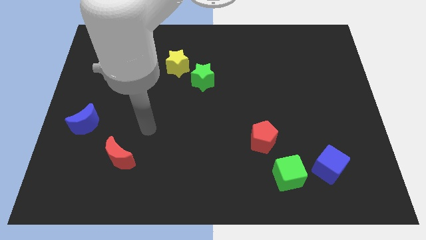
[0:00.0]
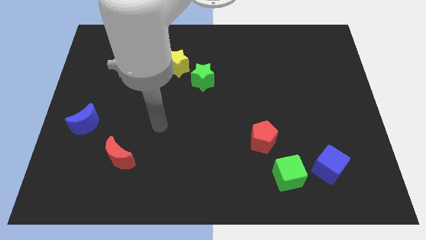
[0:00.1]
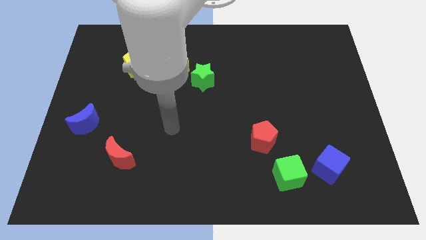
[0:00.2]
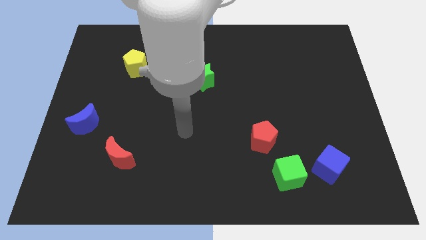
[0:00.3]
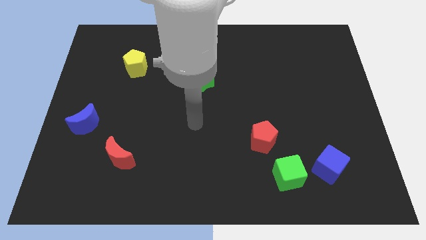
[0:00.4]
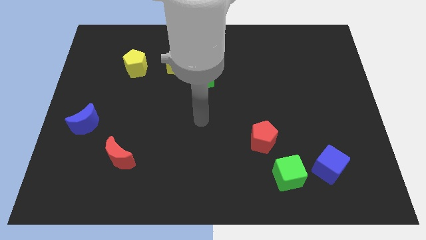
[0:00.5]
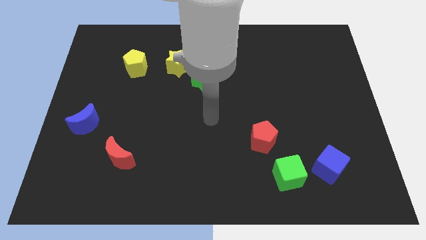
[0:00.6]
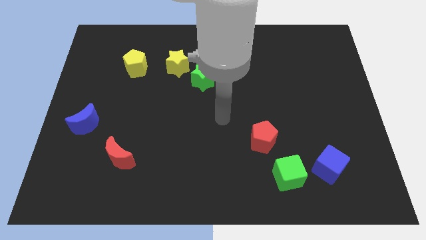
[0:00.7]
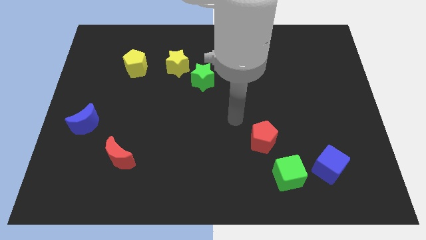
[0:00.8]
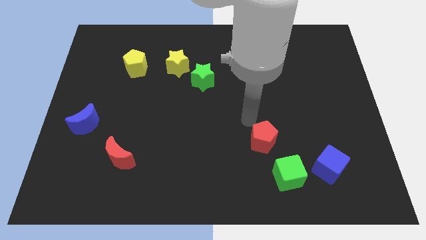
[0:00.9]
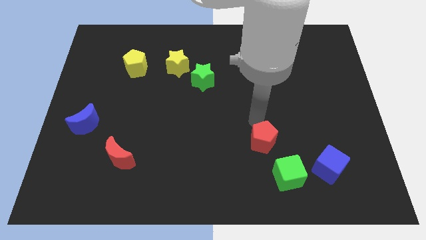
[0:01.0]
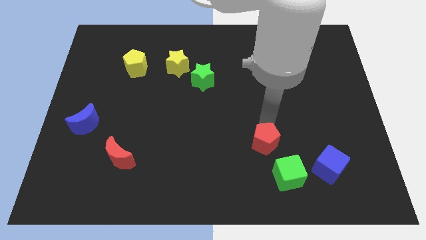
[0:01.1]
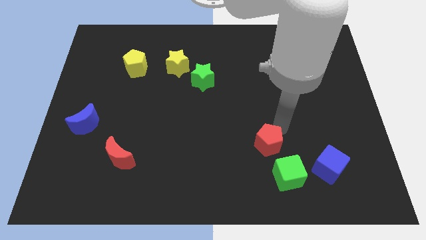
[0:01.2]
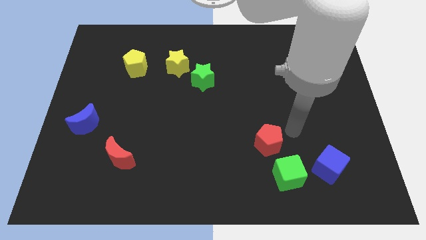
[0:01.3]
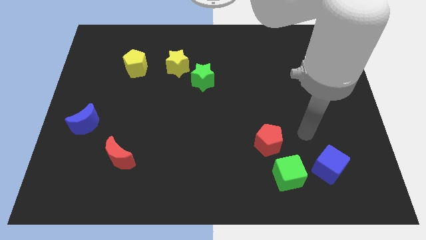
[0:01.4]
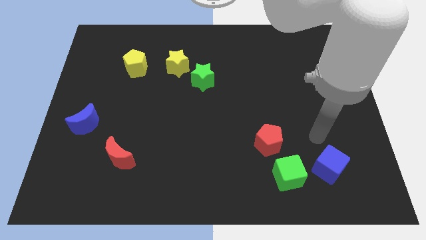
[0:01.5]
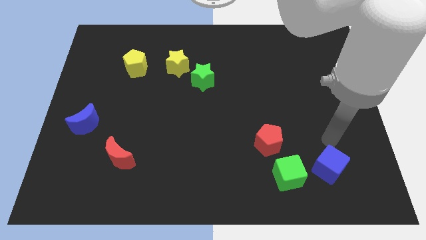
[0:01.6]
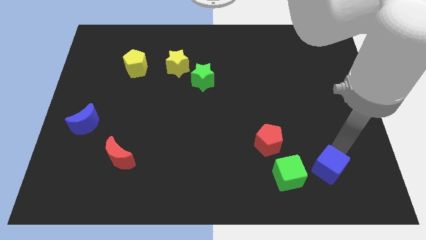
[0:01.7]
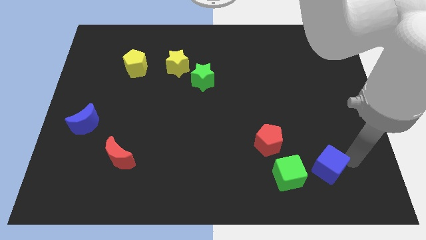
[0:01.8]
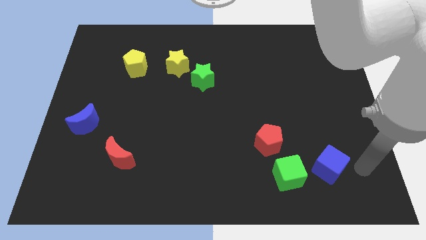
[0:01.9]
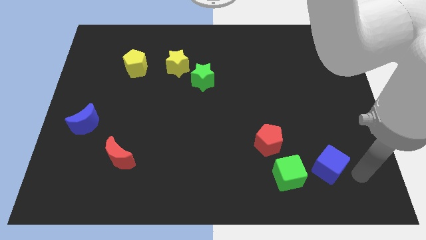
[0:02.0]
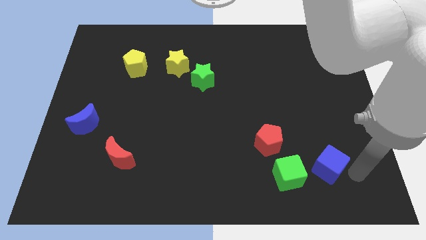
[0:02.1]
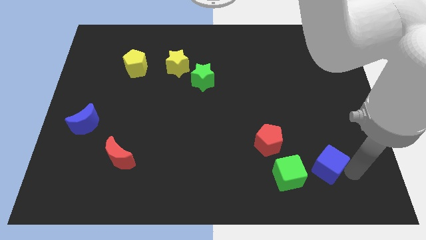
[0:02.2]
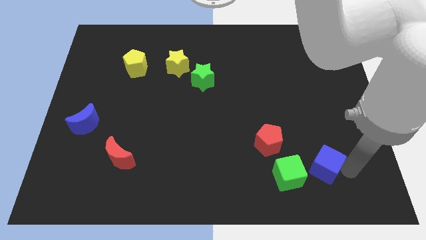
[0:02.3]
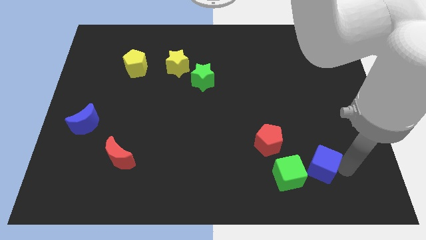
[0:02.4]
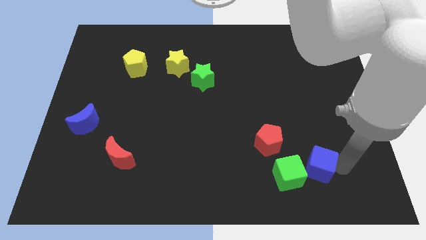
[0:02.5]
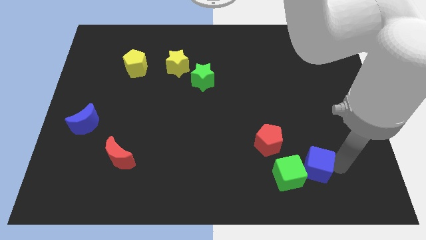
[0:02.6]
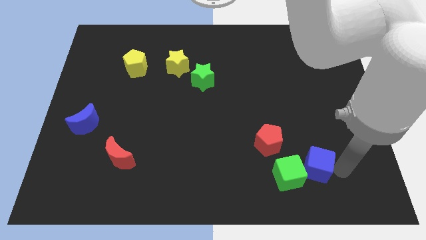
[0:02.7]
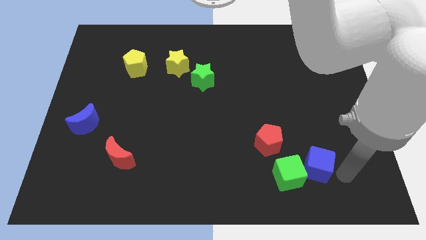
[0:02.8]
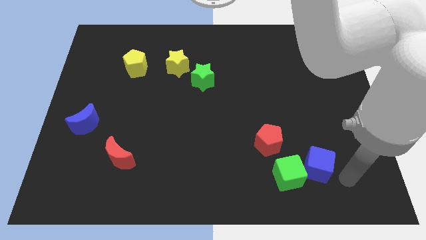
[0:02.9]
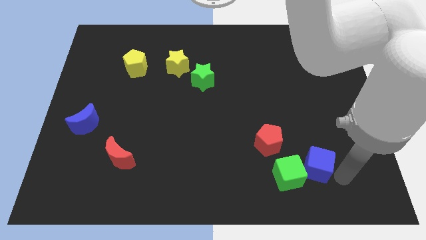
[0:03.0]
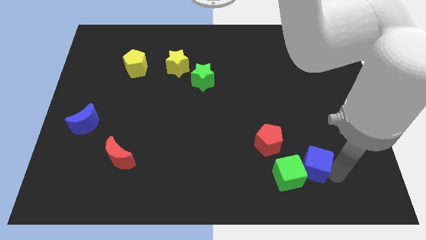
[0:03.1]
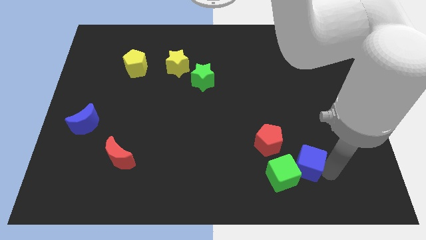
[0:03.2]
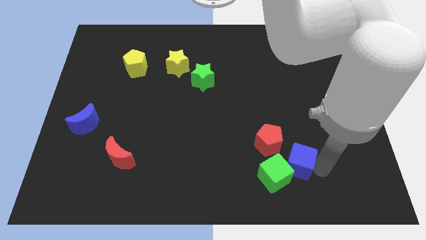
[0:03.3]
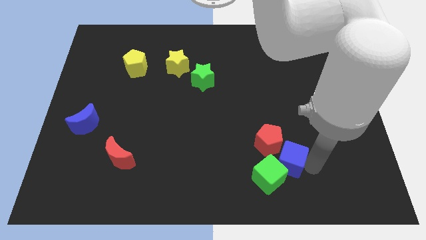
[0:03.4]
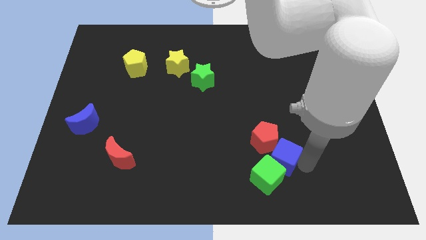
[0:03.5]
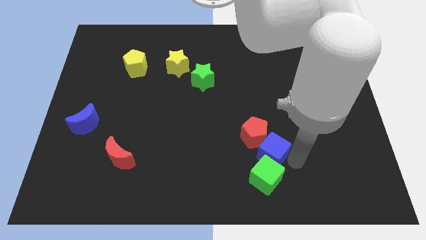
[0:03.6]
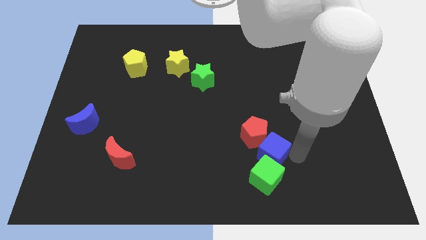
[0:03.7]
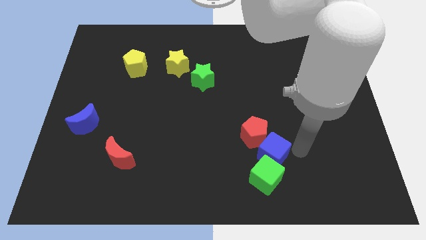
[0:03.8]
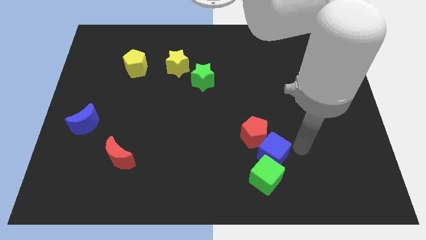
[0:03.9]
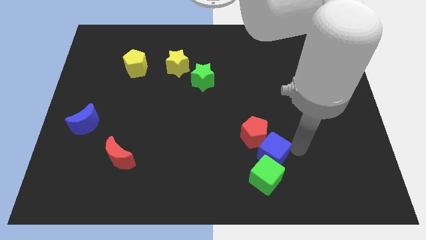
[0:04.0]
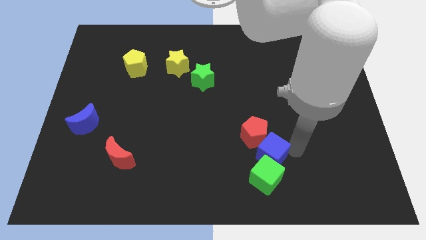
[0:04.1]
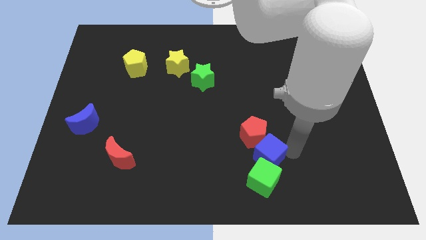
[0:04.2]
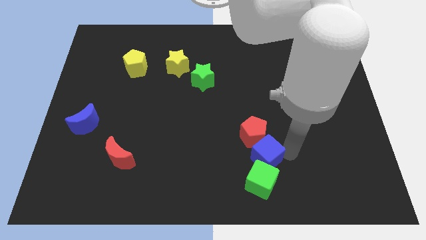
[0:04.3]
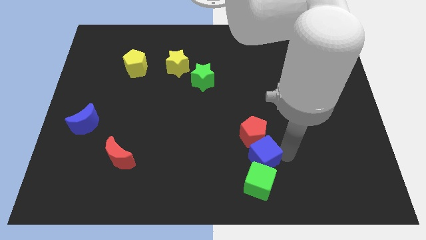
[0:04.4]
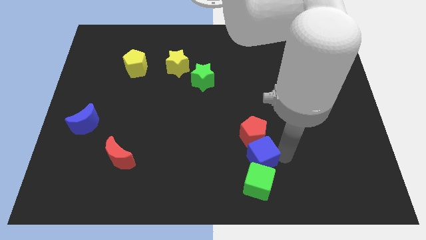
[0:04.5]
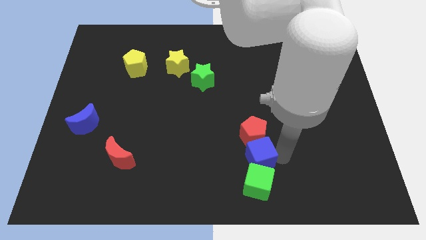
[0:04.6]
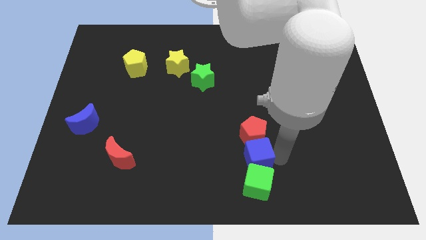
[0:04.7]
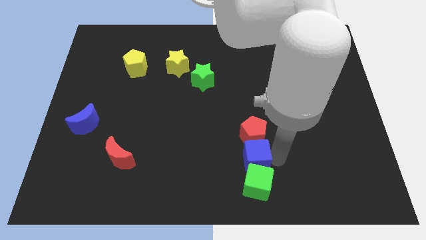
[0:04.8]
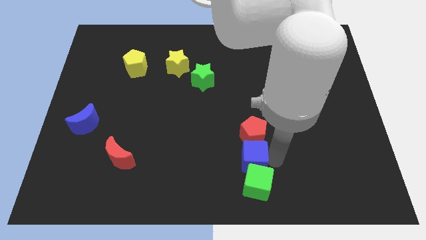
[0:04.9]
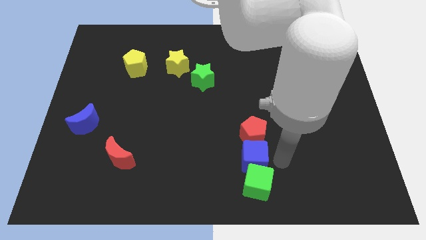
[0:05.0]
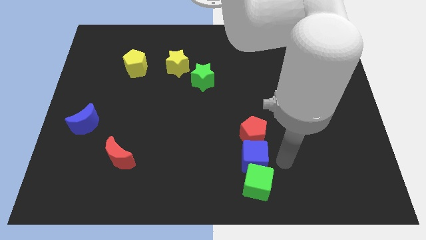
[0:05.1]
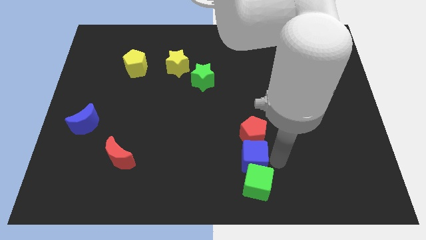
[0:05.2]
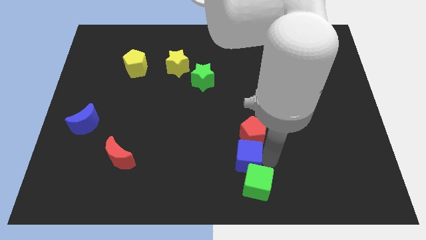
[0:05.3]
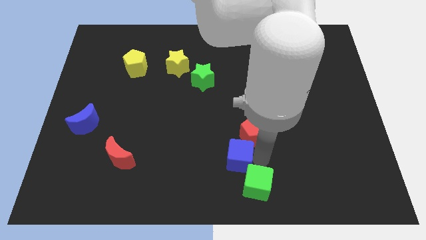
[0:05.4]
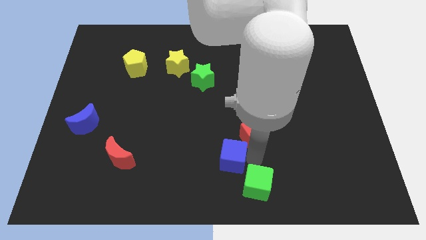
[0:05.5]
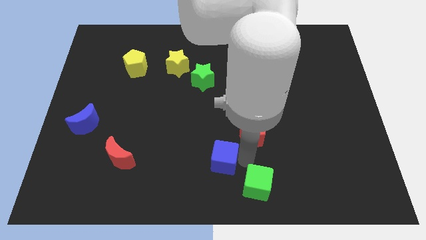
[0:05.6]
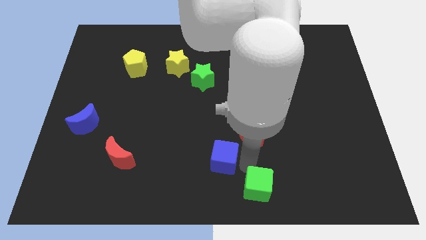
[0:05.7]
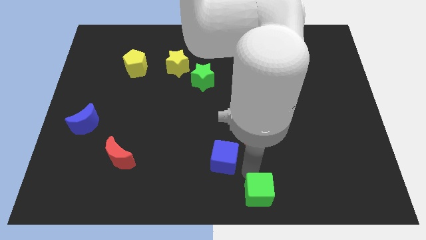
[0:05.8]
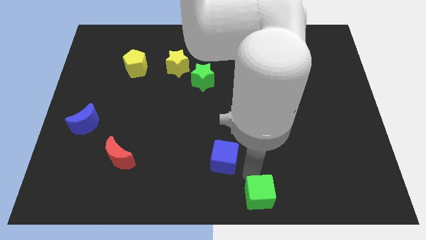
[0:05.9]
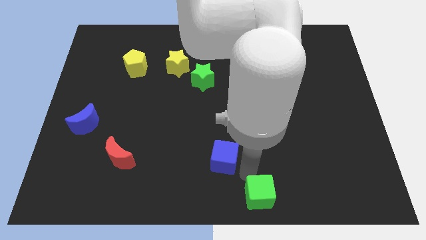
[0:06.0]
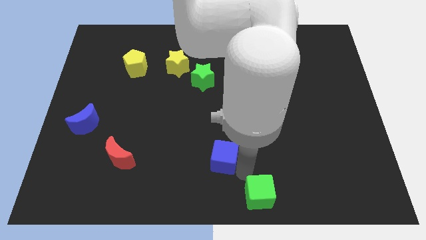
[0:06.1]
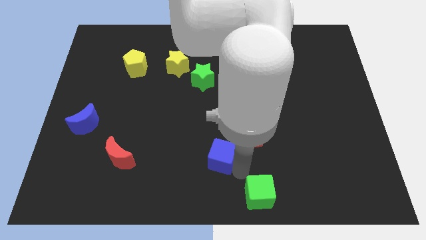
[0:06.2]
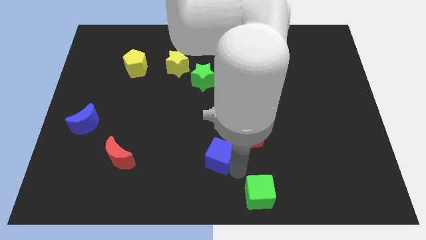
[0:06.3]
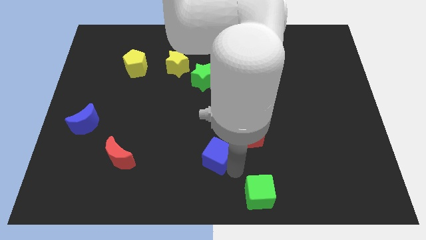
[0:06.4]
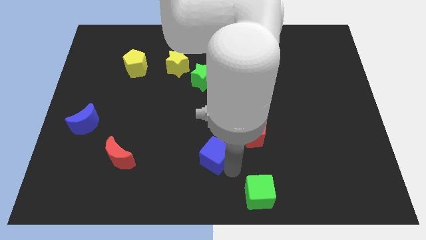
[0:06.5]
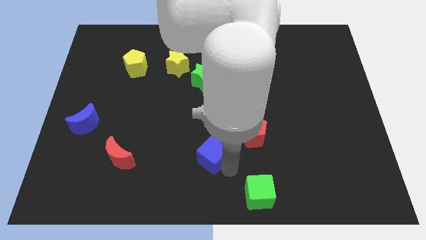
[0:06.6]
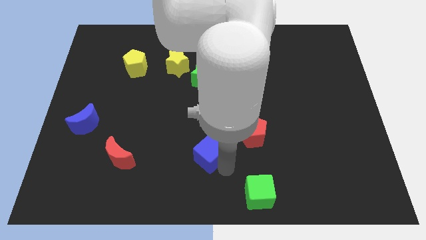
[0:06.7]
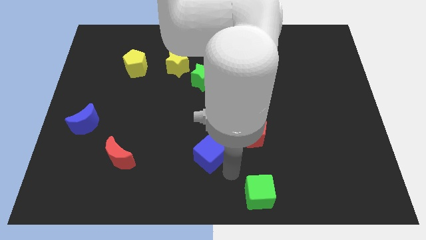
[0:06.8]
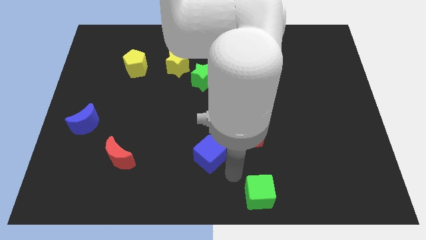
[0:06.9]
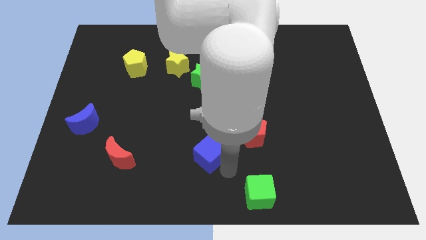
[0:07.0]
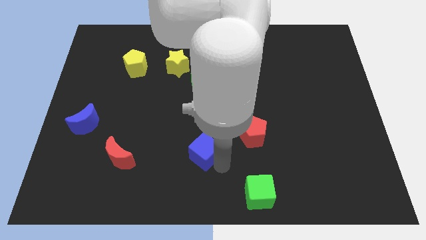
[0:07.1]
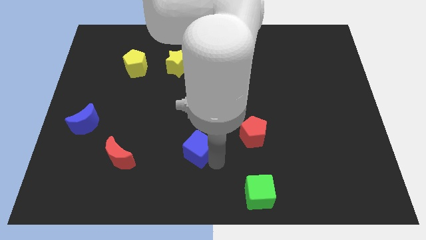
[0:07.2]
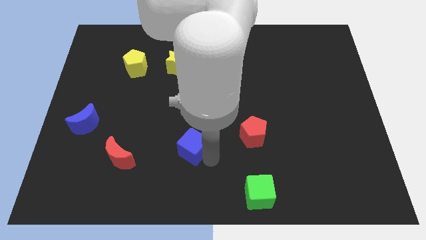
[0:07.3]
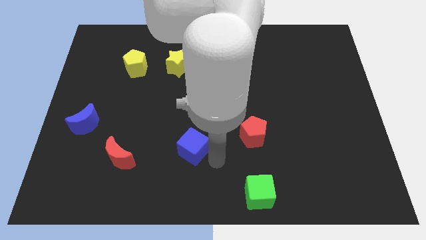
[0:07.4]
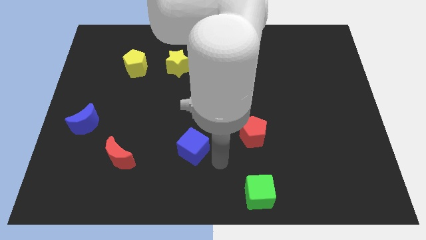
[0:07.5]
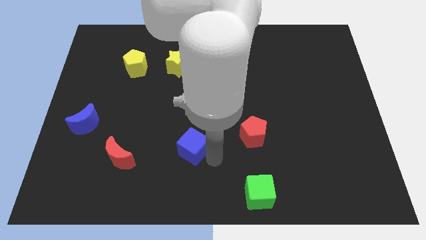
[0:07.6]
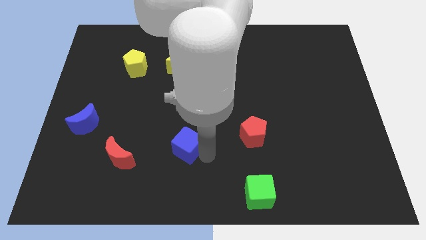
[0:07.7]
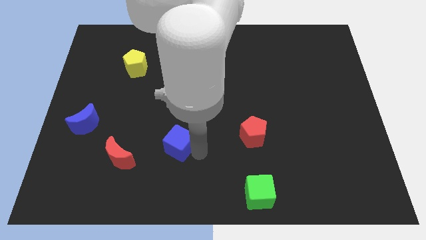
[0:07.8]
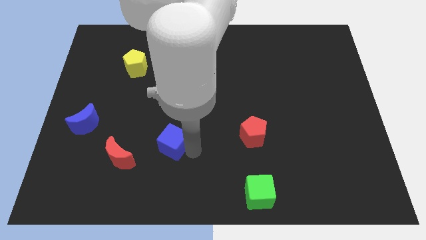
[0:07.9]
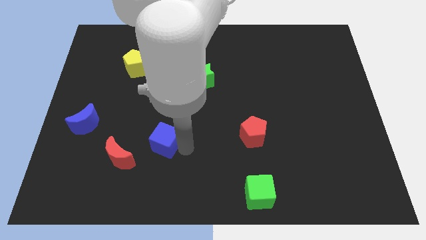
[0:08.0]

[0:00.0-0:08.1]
put the blue cube diagonally up and to the right of the red moon
